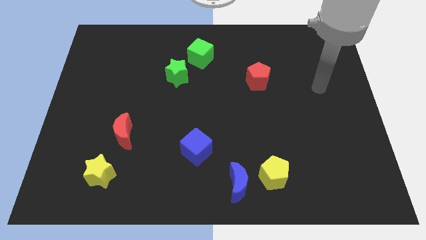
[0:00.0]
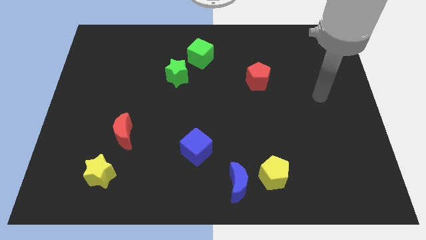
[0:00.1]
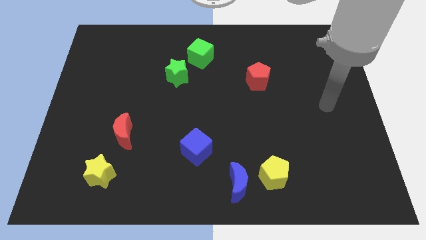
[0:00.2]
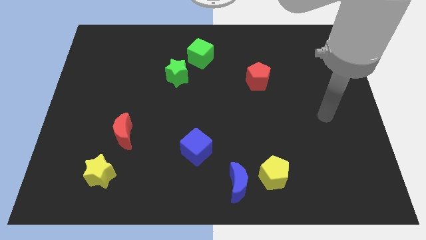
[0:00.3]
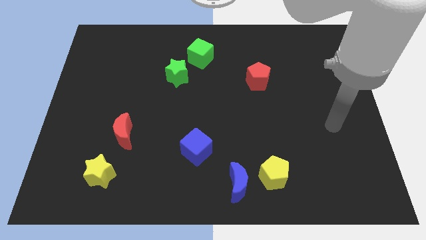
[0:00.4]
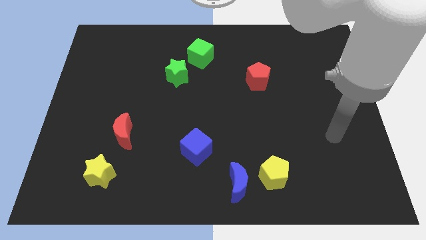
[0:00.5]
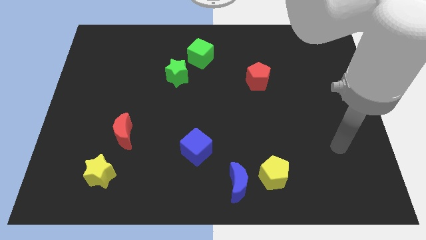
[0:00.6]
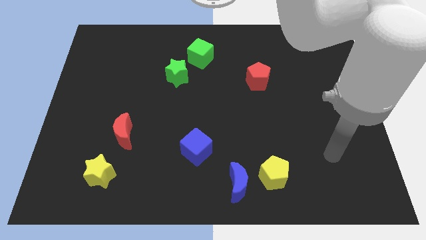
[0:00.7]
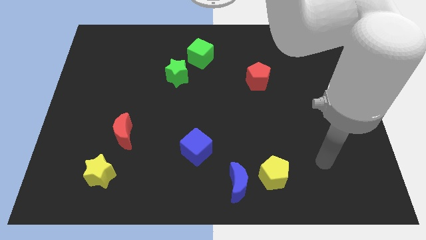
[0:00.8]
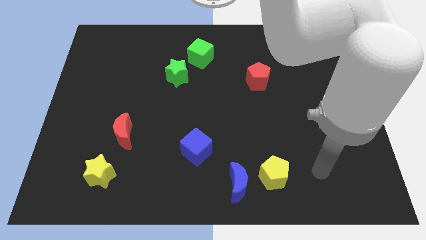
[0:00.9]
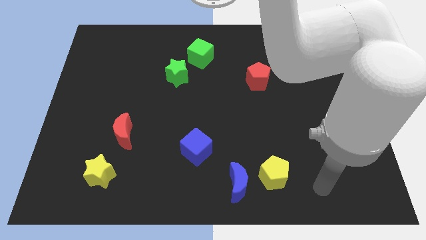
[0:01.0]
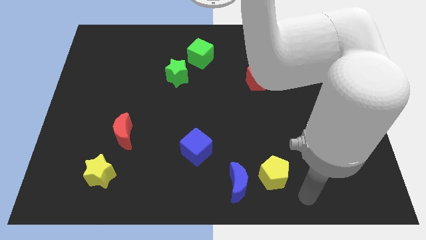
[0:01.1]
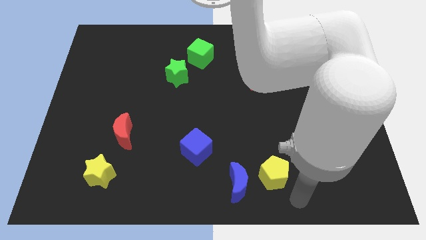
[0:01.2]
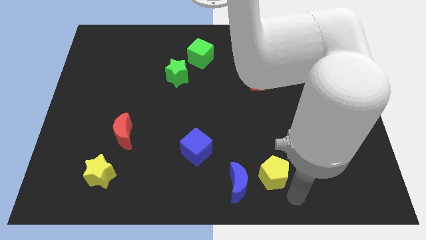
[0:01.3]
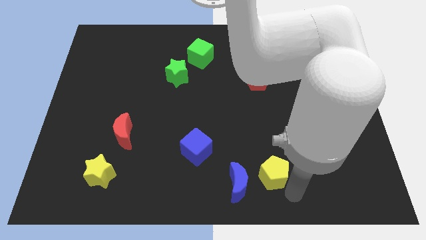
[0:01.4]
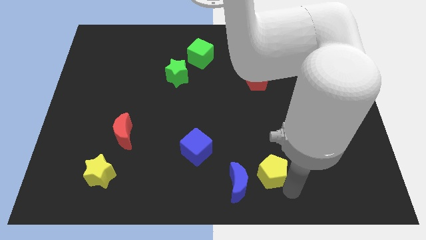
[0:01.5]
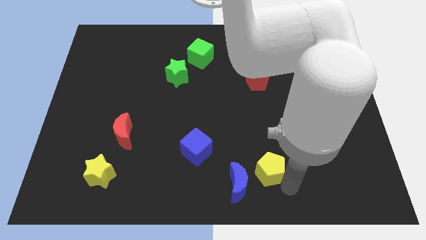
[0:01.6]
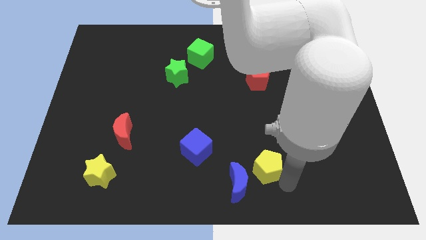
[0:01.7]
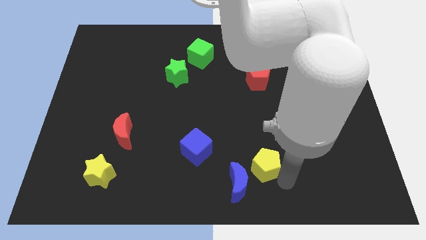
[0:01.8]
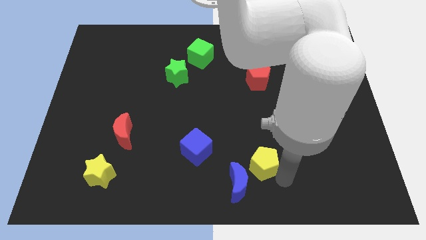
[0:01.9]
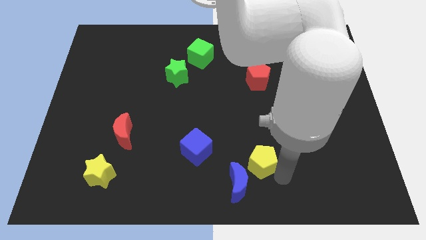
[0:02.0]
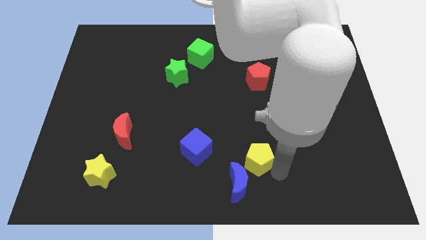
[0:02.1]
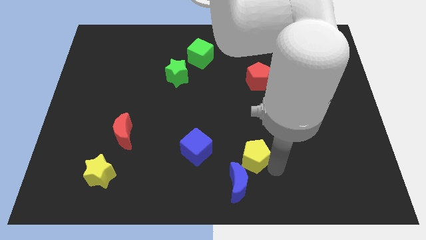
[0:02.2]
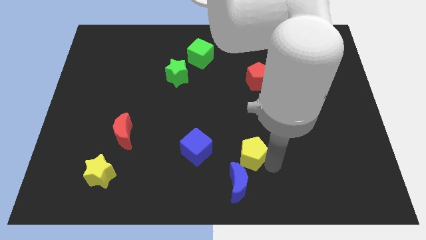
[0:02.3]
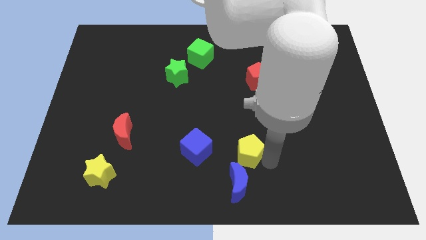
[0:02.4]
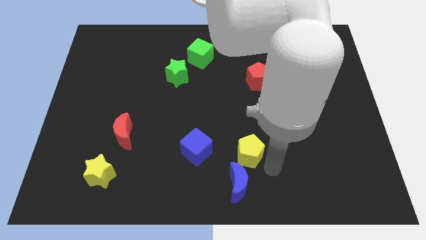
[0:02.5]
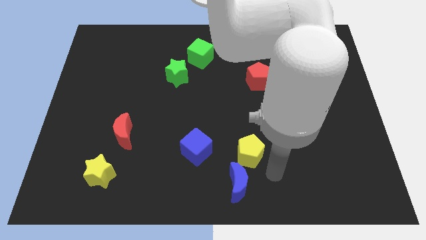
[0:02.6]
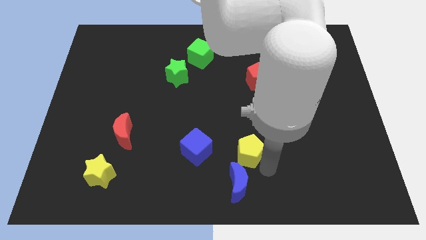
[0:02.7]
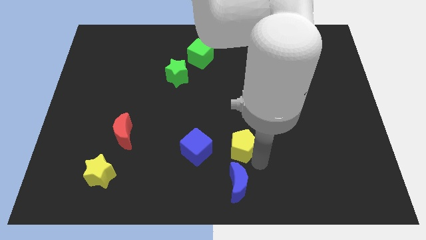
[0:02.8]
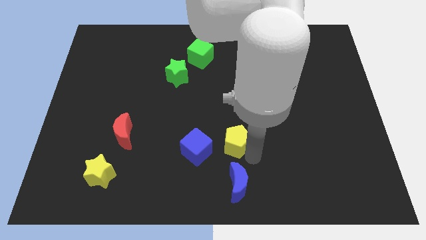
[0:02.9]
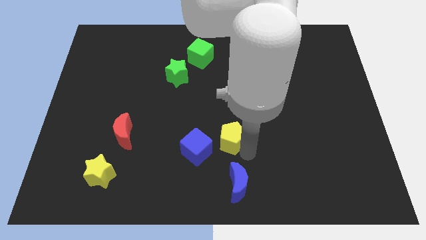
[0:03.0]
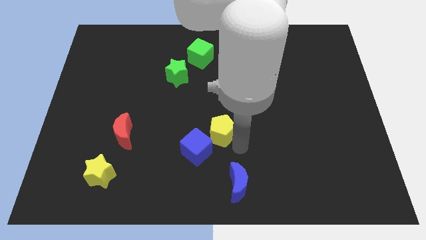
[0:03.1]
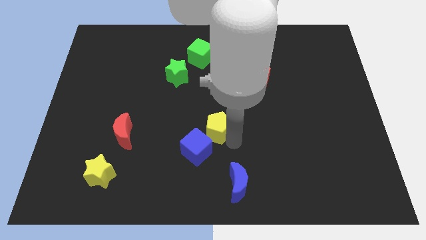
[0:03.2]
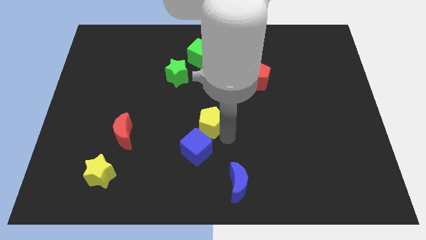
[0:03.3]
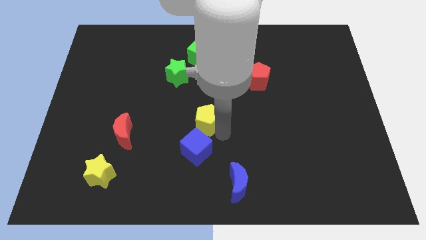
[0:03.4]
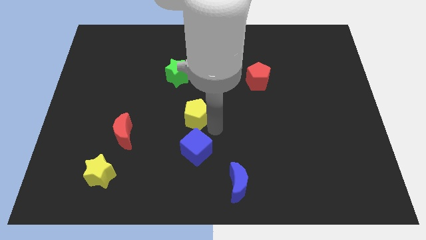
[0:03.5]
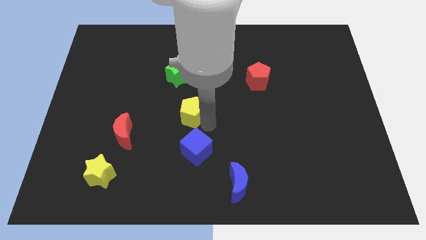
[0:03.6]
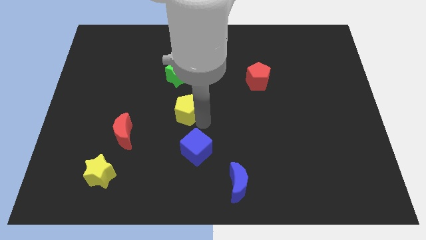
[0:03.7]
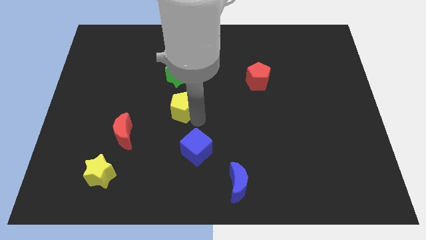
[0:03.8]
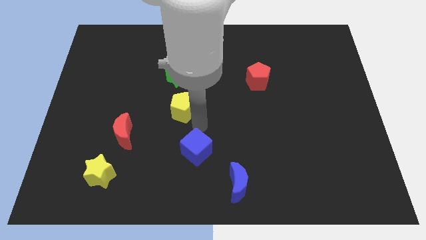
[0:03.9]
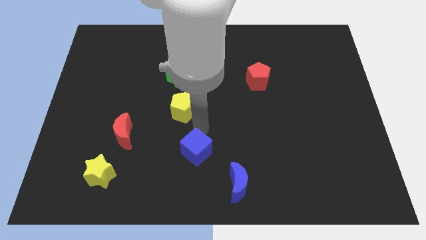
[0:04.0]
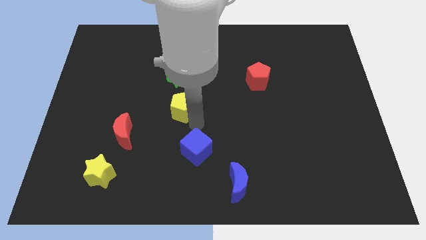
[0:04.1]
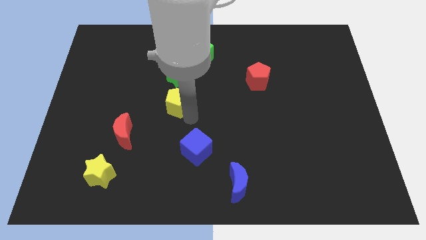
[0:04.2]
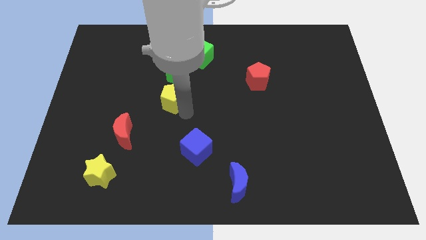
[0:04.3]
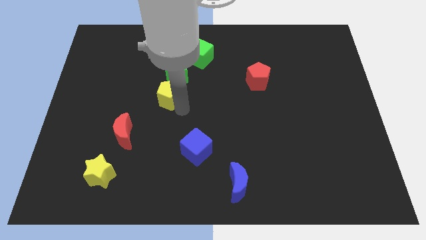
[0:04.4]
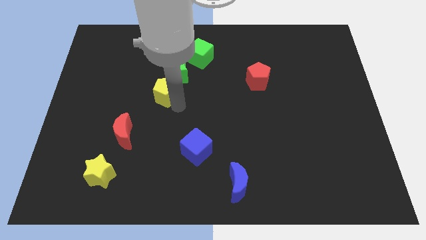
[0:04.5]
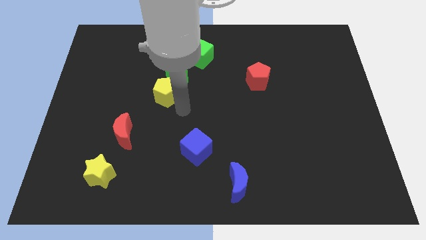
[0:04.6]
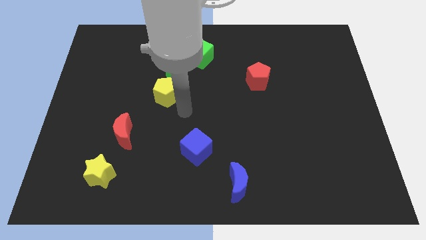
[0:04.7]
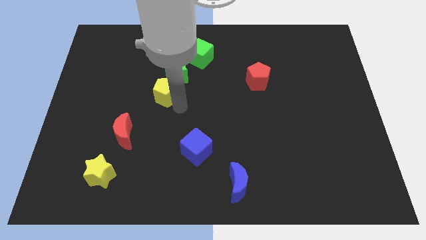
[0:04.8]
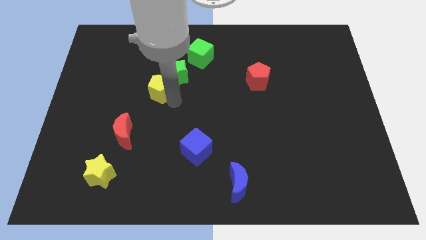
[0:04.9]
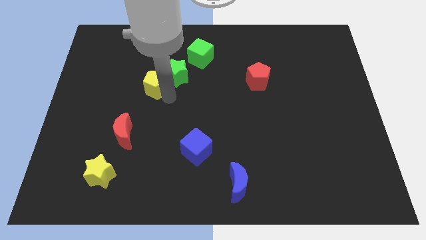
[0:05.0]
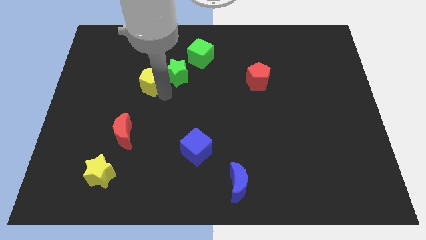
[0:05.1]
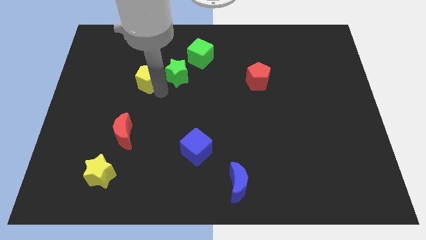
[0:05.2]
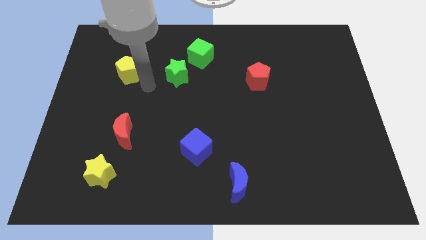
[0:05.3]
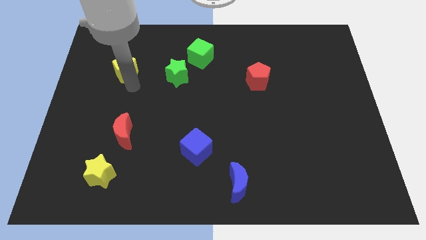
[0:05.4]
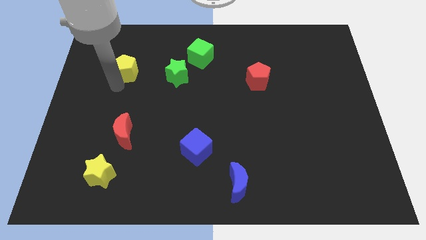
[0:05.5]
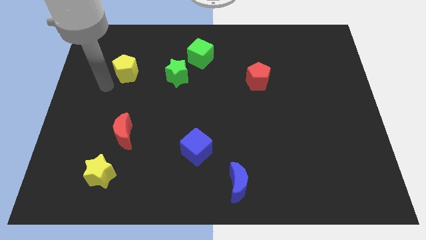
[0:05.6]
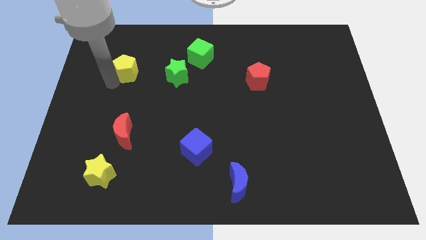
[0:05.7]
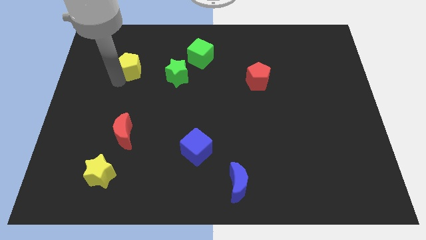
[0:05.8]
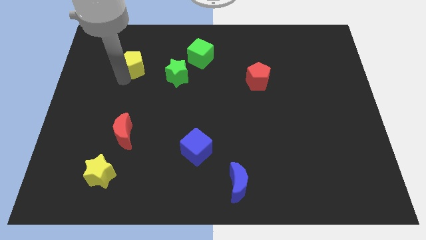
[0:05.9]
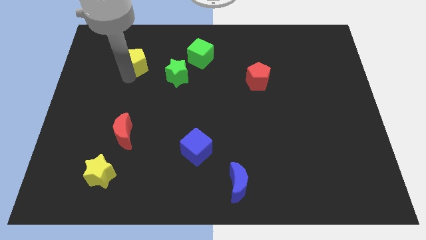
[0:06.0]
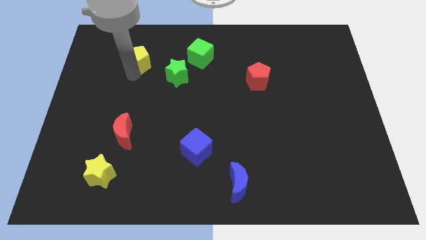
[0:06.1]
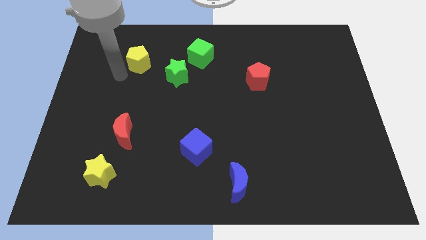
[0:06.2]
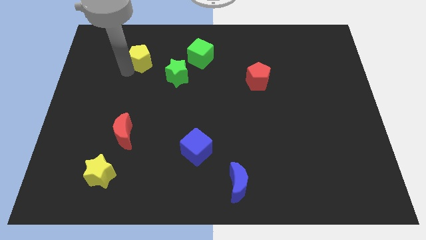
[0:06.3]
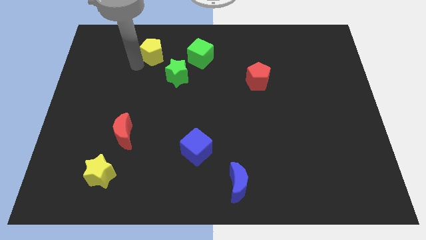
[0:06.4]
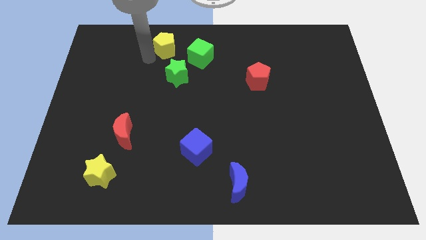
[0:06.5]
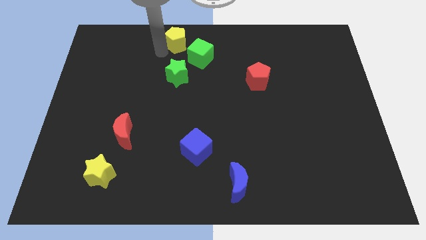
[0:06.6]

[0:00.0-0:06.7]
move the yellow pentagon to the top

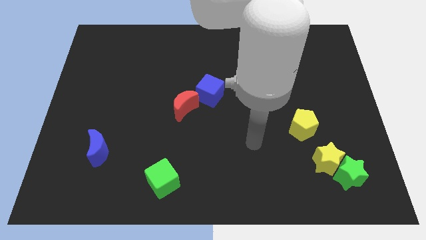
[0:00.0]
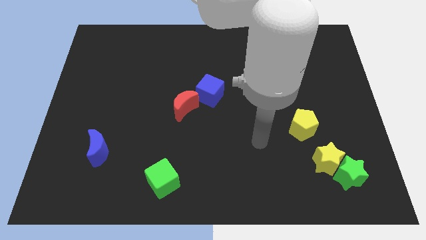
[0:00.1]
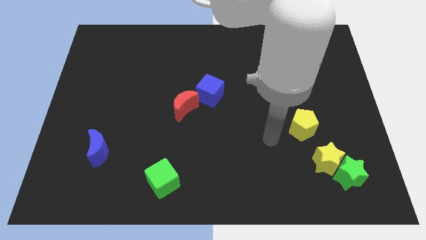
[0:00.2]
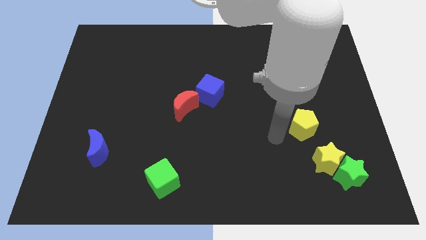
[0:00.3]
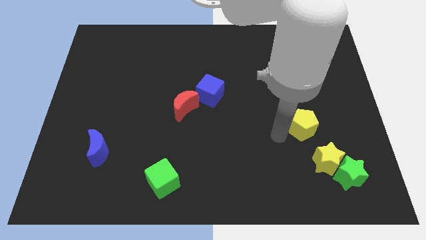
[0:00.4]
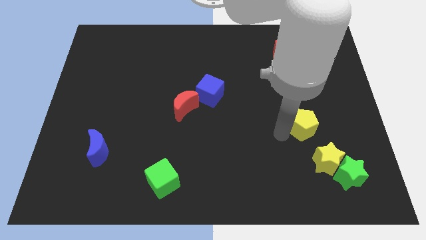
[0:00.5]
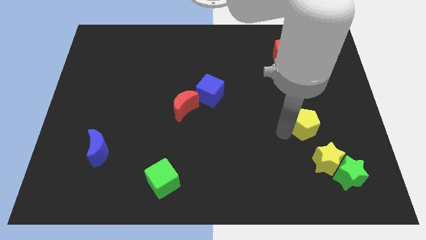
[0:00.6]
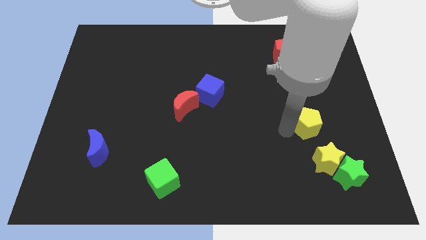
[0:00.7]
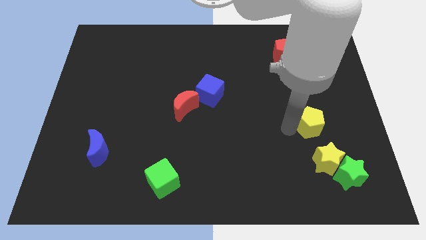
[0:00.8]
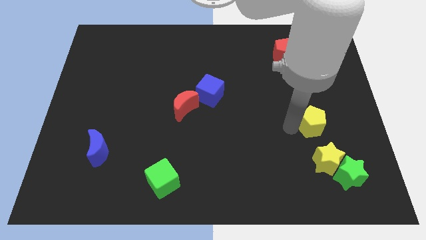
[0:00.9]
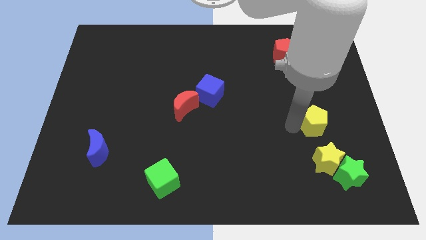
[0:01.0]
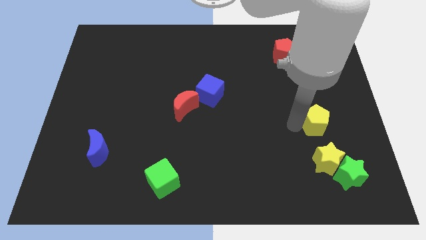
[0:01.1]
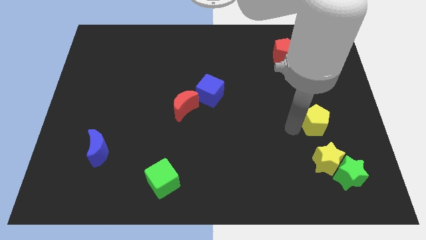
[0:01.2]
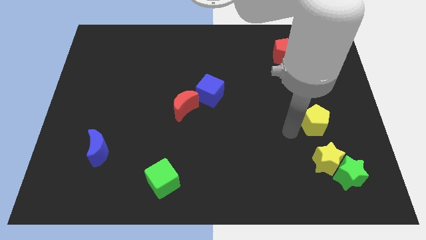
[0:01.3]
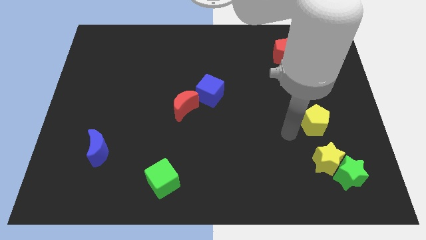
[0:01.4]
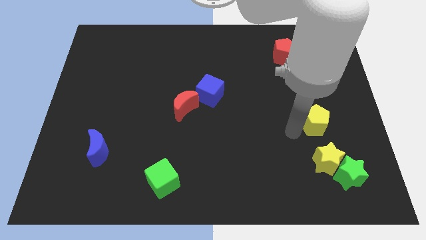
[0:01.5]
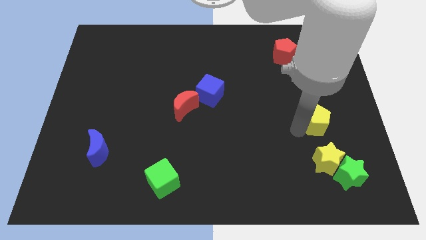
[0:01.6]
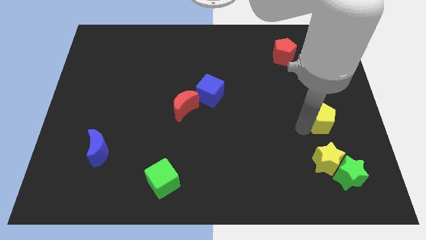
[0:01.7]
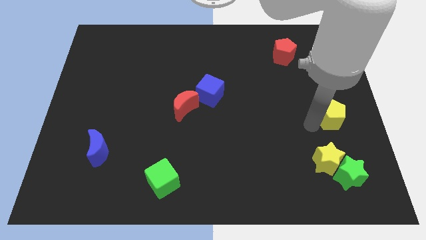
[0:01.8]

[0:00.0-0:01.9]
put the yellow pentagon to the right side of the board
